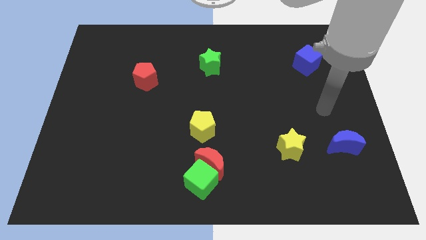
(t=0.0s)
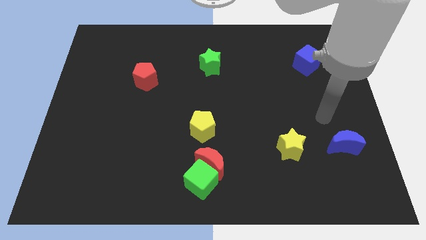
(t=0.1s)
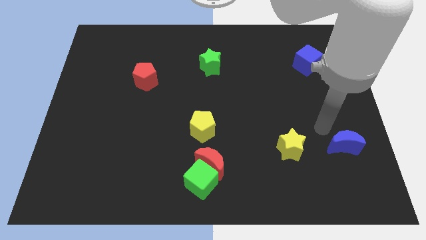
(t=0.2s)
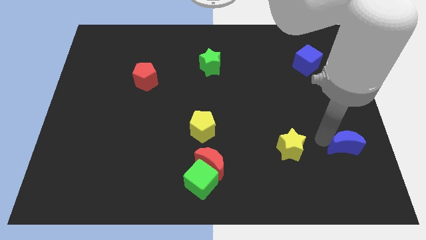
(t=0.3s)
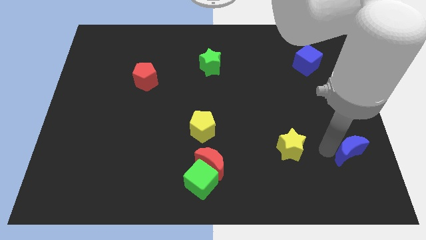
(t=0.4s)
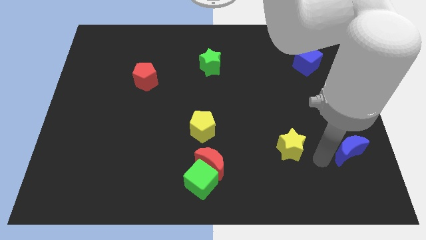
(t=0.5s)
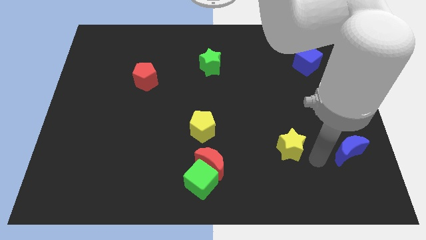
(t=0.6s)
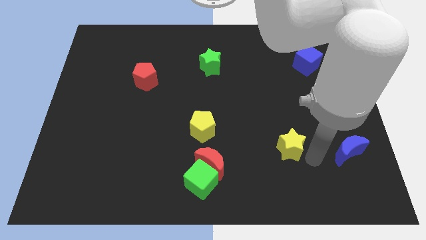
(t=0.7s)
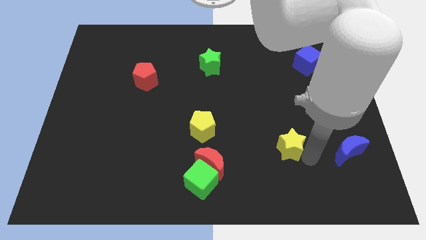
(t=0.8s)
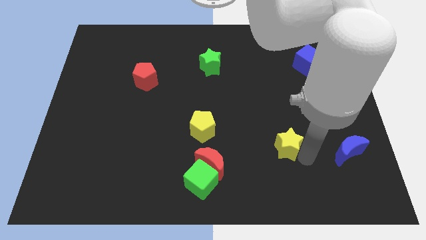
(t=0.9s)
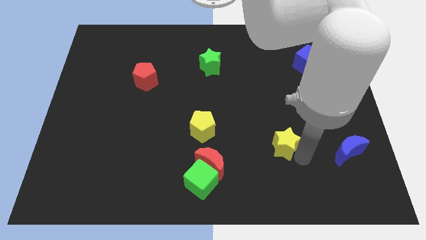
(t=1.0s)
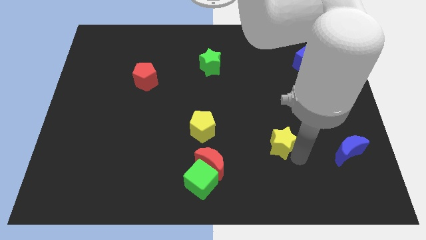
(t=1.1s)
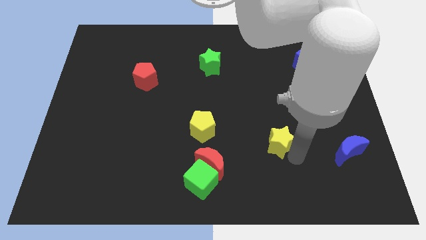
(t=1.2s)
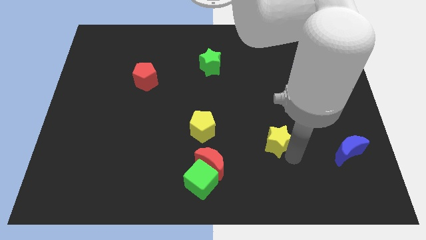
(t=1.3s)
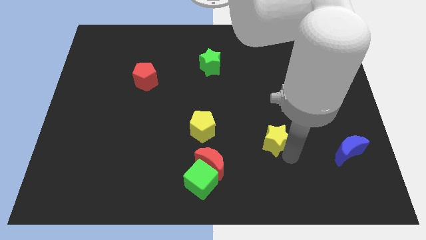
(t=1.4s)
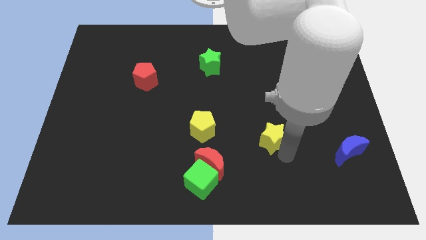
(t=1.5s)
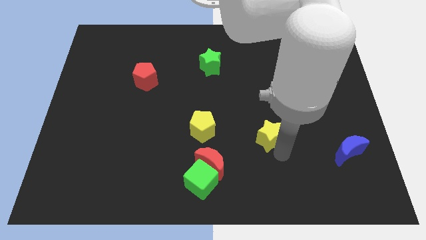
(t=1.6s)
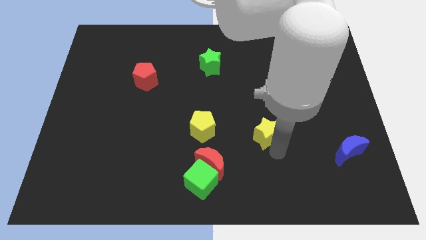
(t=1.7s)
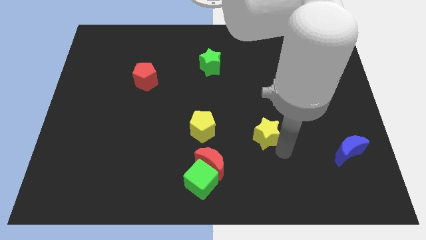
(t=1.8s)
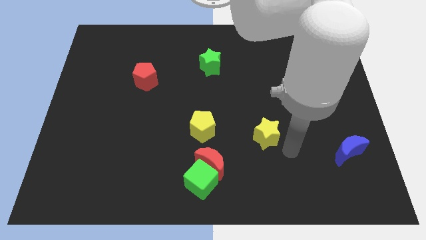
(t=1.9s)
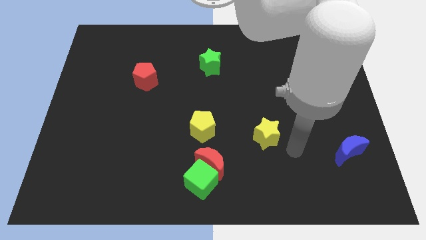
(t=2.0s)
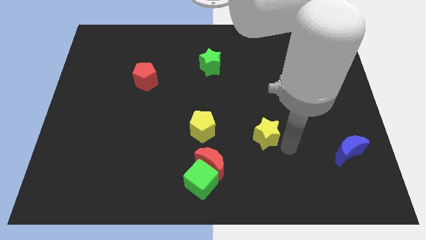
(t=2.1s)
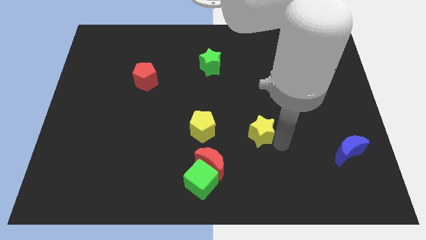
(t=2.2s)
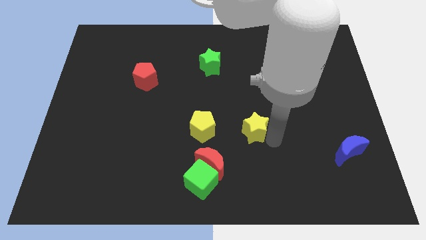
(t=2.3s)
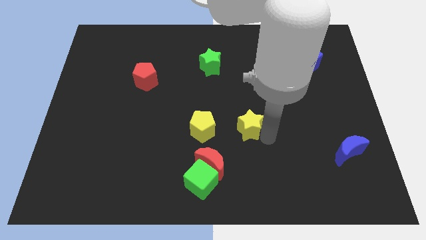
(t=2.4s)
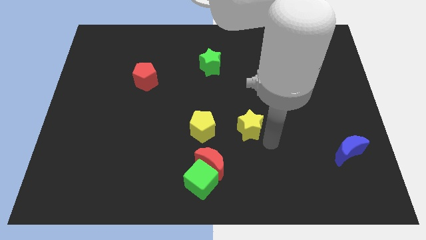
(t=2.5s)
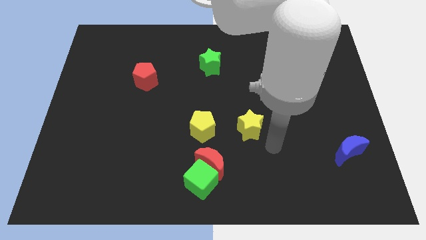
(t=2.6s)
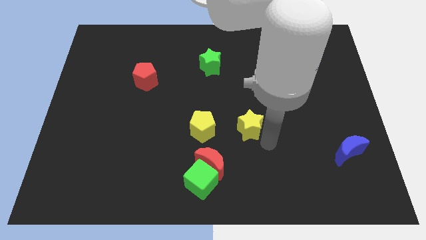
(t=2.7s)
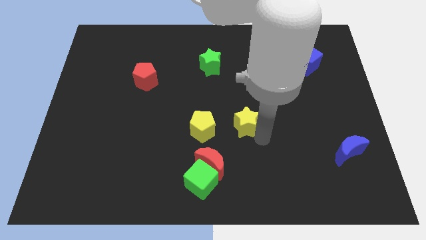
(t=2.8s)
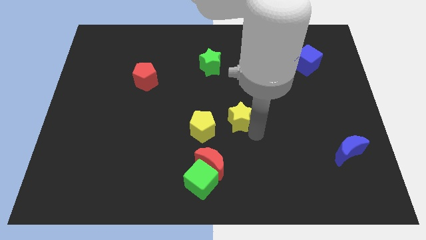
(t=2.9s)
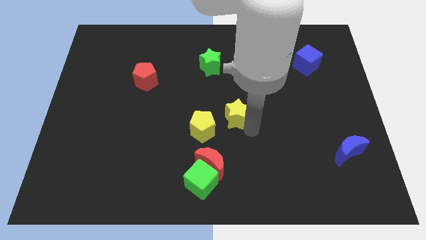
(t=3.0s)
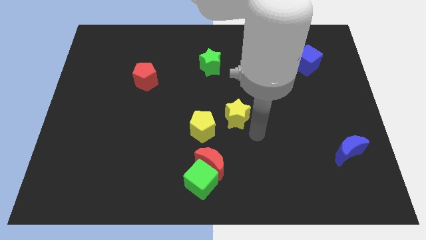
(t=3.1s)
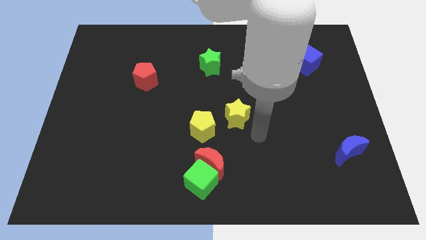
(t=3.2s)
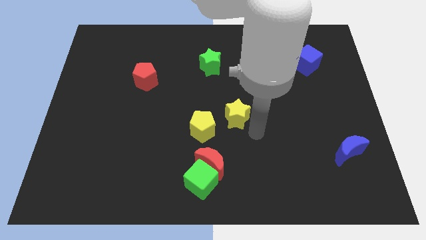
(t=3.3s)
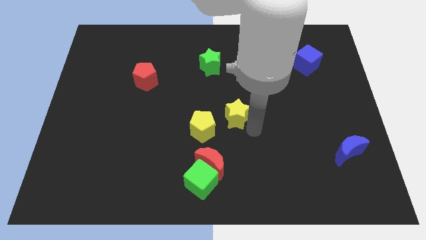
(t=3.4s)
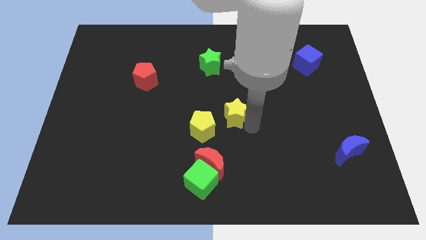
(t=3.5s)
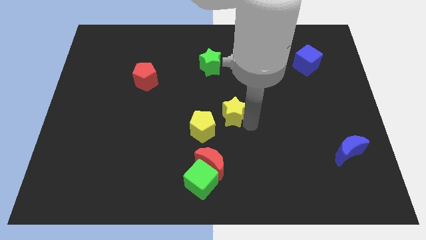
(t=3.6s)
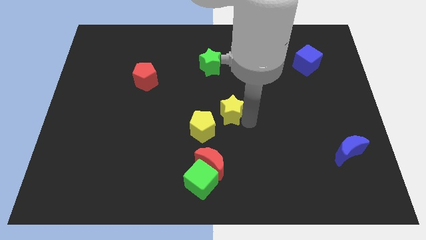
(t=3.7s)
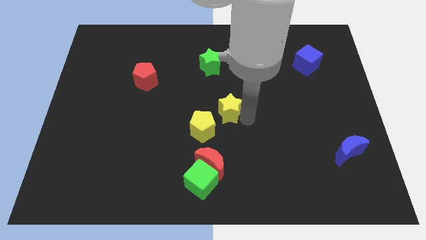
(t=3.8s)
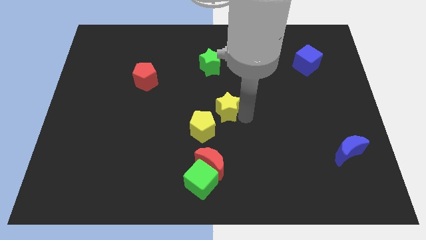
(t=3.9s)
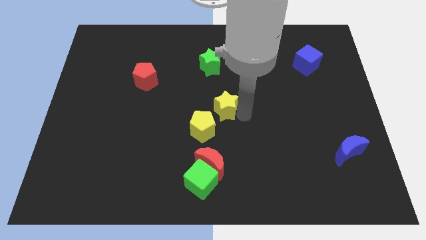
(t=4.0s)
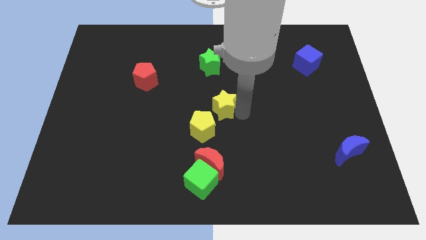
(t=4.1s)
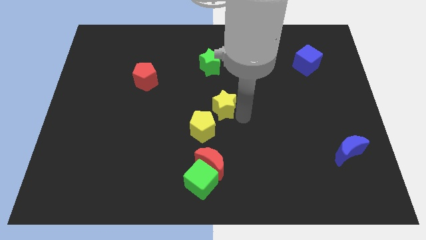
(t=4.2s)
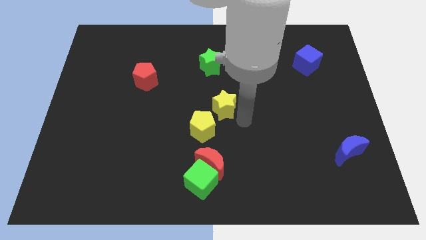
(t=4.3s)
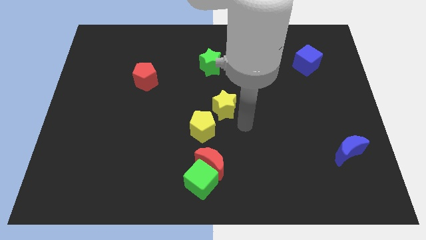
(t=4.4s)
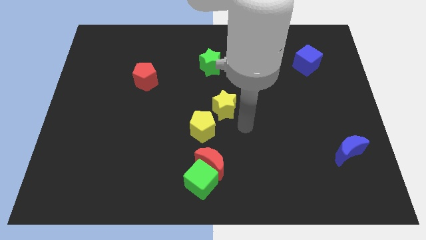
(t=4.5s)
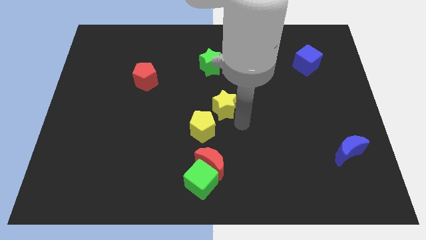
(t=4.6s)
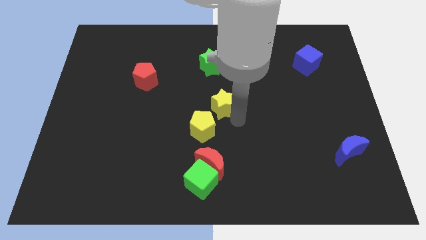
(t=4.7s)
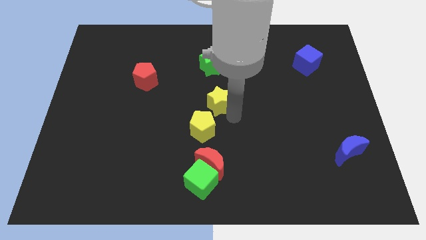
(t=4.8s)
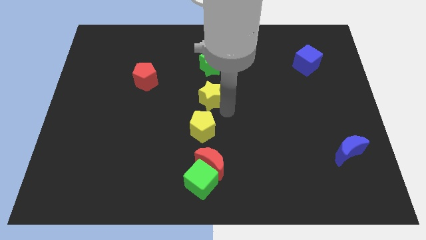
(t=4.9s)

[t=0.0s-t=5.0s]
push the yellow star up and then to the left

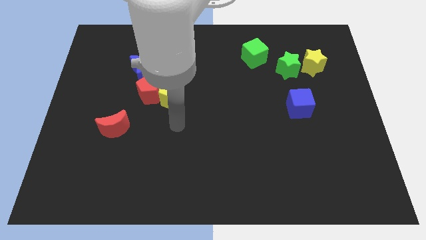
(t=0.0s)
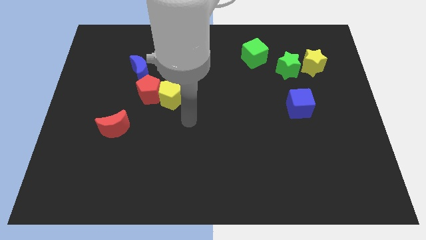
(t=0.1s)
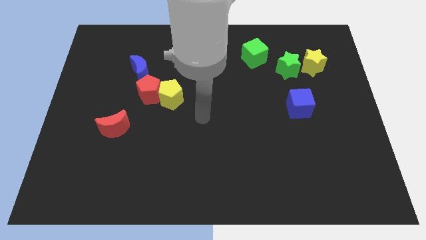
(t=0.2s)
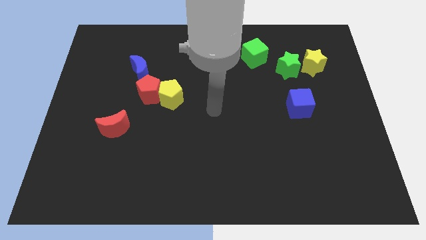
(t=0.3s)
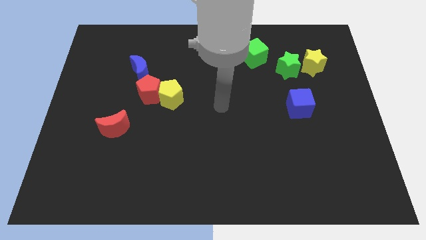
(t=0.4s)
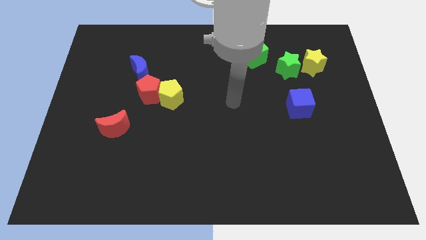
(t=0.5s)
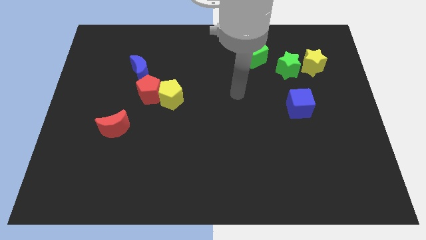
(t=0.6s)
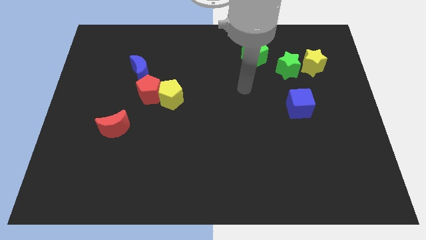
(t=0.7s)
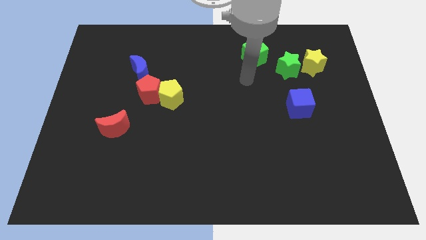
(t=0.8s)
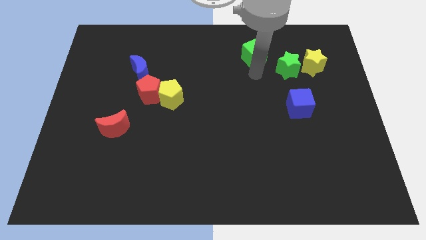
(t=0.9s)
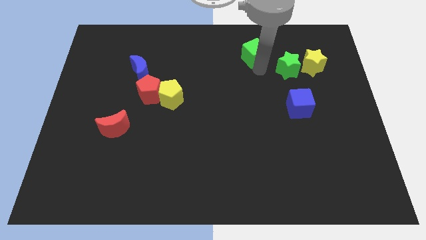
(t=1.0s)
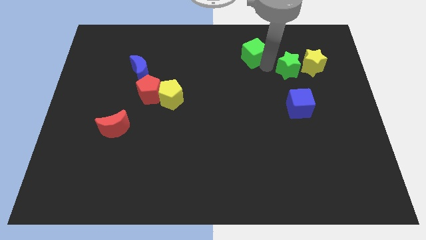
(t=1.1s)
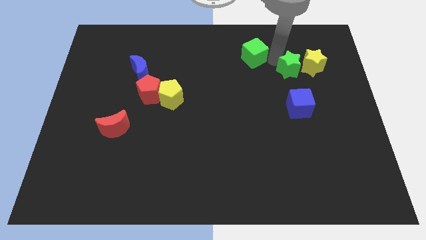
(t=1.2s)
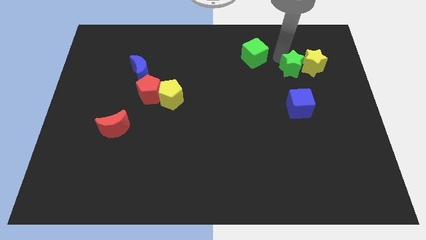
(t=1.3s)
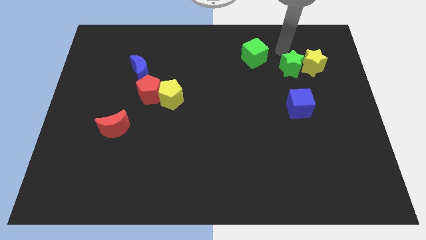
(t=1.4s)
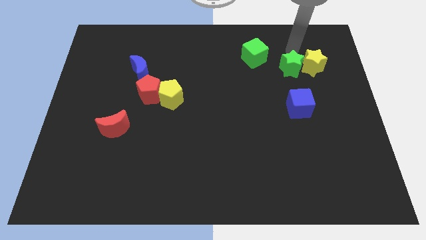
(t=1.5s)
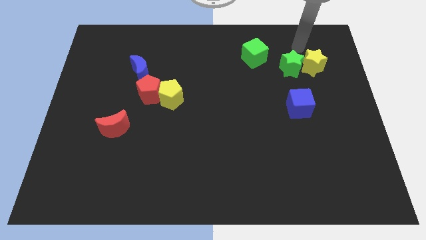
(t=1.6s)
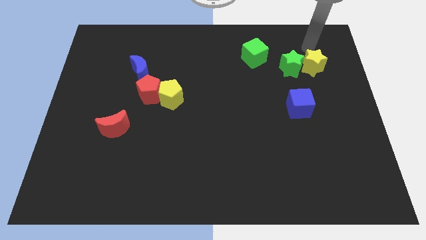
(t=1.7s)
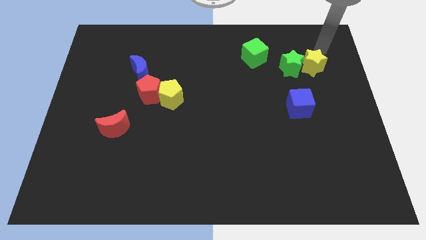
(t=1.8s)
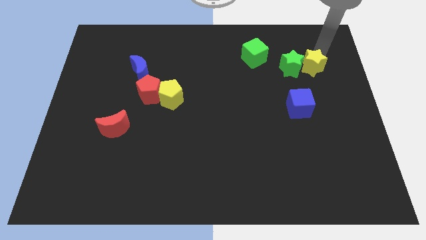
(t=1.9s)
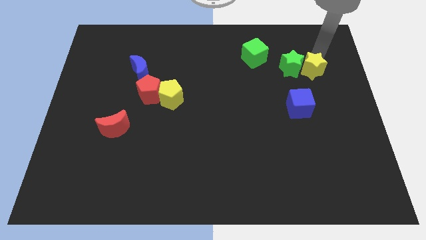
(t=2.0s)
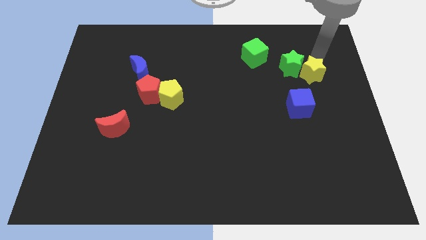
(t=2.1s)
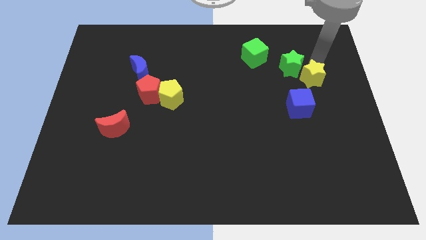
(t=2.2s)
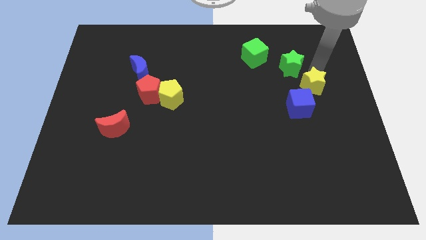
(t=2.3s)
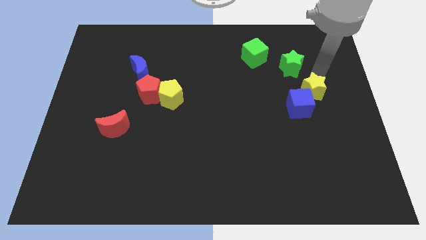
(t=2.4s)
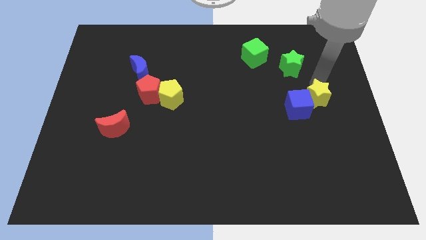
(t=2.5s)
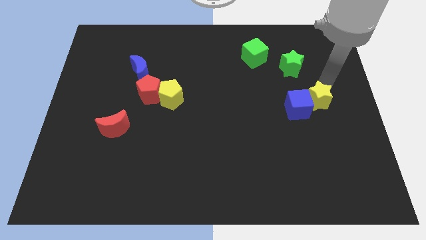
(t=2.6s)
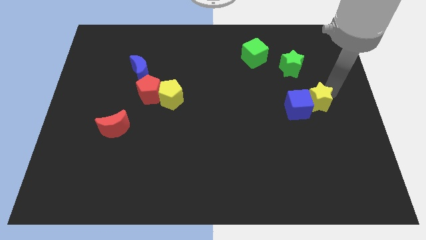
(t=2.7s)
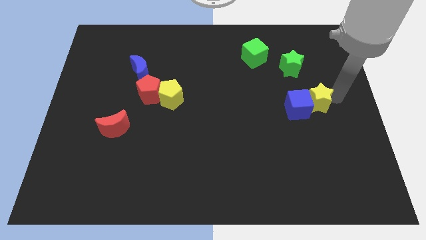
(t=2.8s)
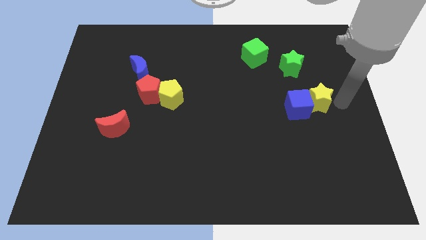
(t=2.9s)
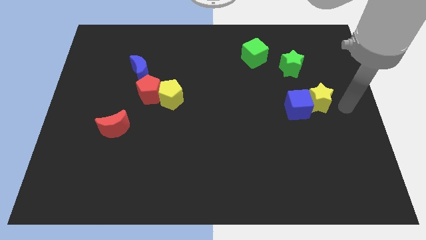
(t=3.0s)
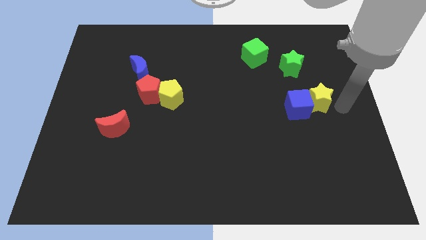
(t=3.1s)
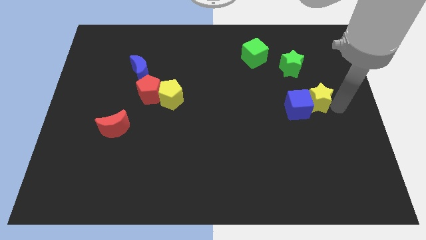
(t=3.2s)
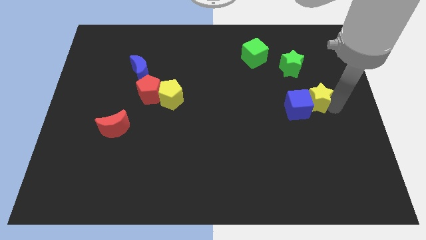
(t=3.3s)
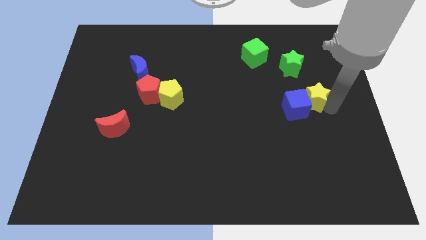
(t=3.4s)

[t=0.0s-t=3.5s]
move the yellow star downwards and to the left diagonally slightly
